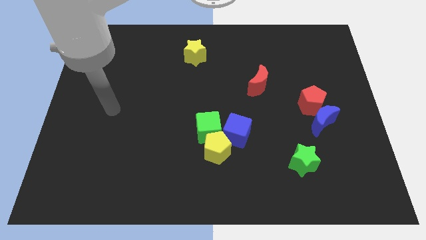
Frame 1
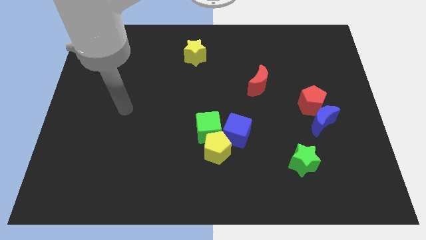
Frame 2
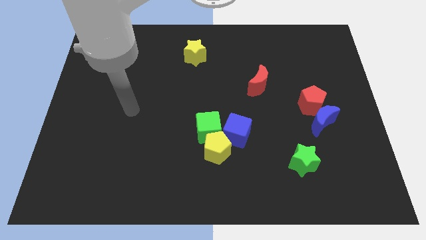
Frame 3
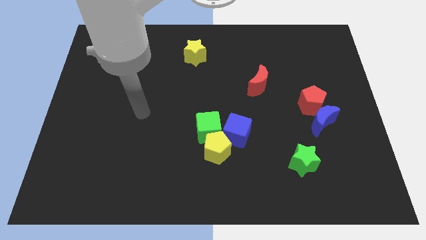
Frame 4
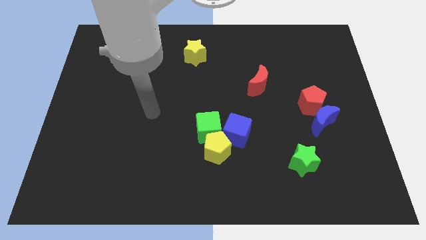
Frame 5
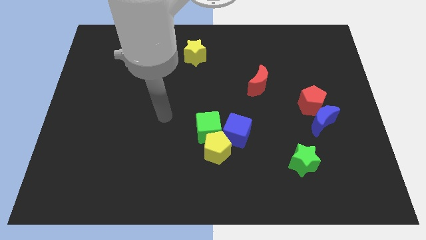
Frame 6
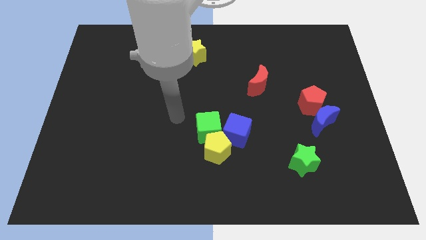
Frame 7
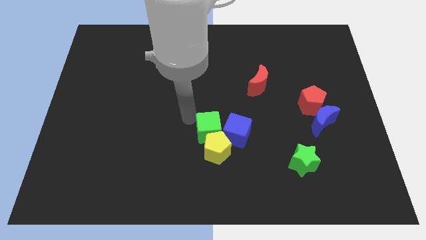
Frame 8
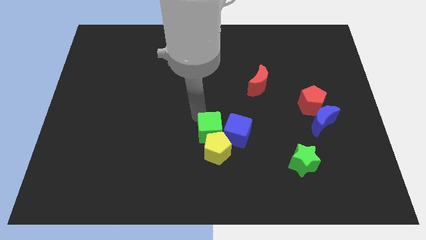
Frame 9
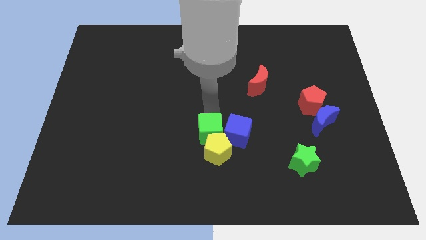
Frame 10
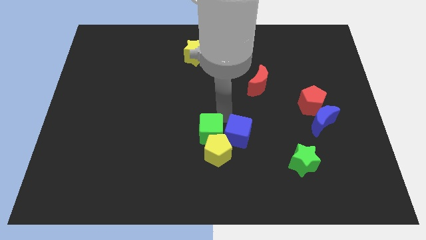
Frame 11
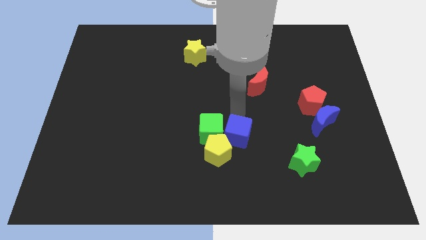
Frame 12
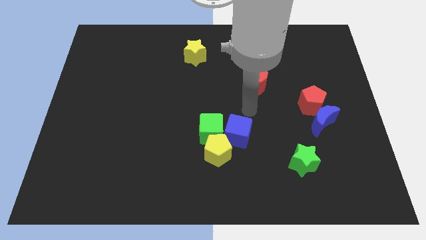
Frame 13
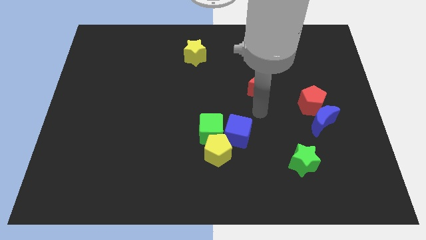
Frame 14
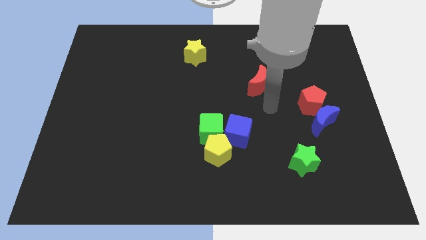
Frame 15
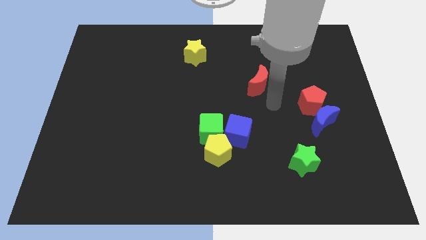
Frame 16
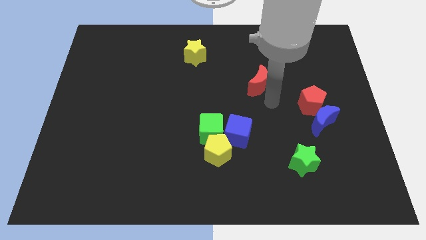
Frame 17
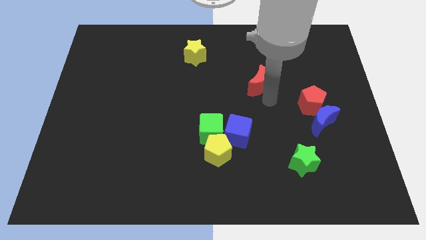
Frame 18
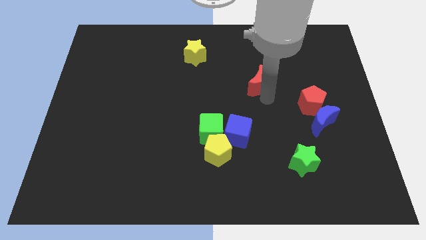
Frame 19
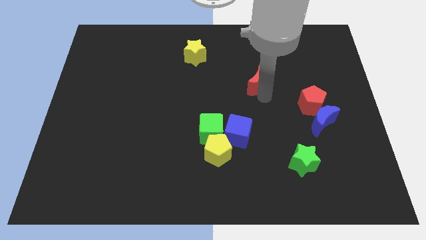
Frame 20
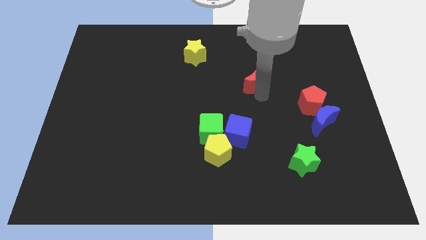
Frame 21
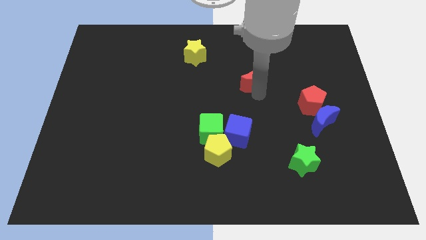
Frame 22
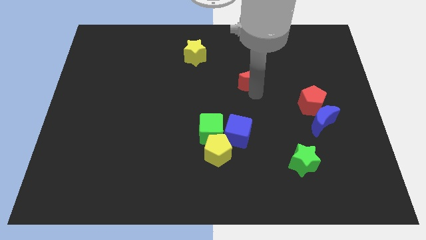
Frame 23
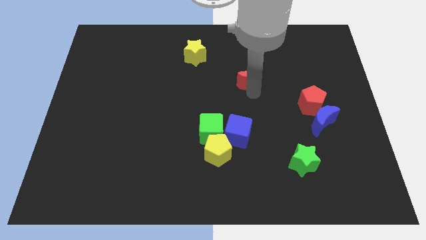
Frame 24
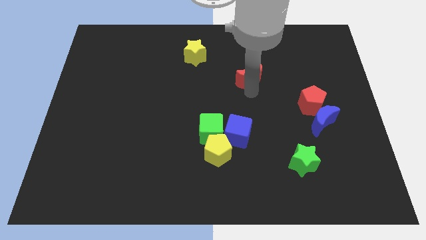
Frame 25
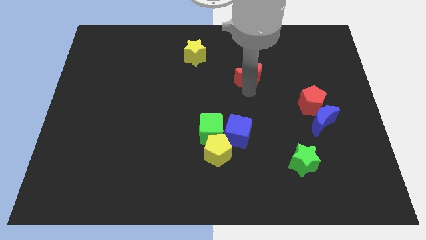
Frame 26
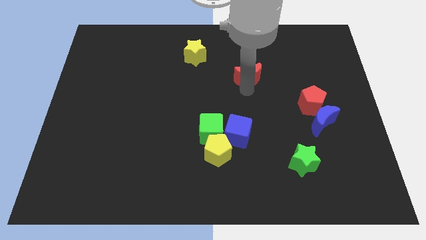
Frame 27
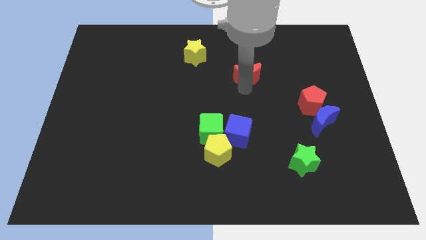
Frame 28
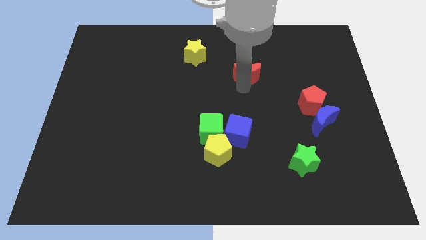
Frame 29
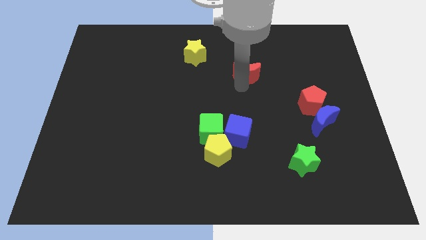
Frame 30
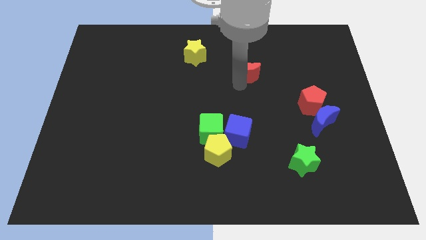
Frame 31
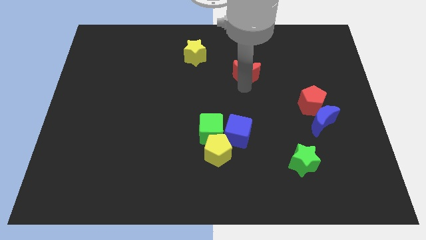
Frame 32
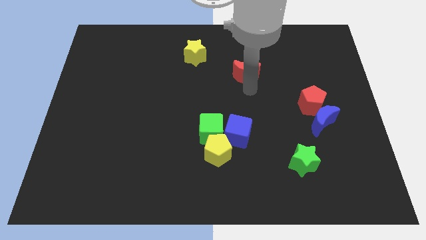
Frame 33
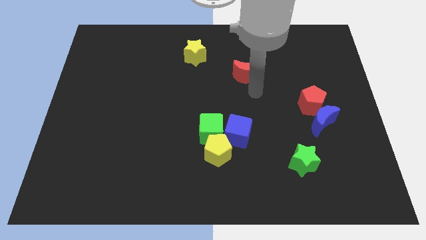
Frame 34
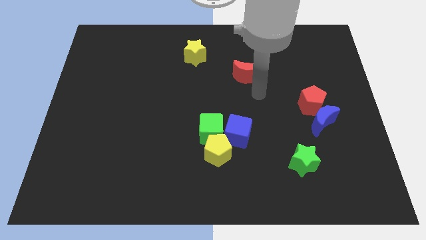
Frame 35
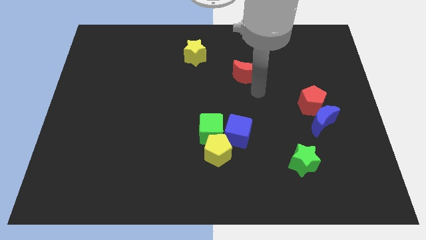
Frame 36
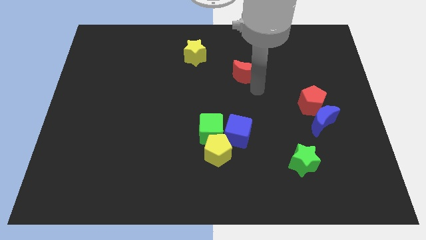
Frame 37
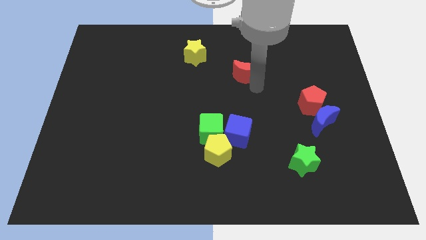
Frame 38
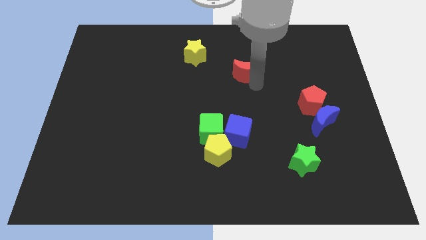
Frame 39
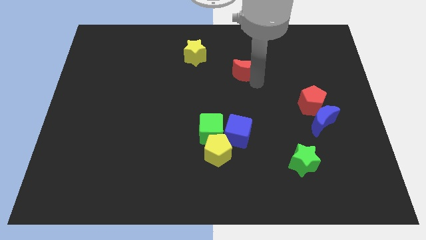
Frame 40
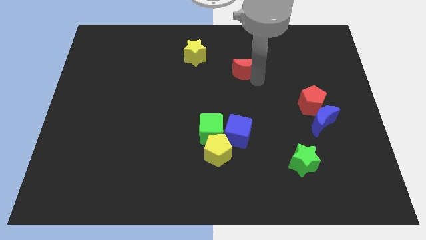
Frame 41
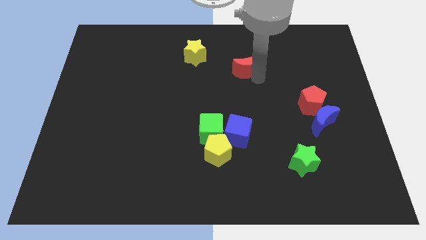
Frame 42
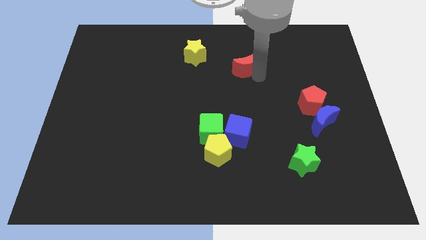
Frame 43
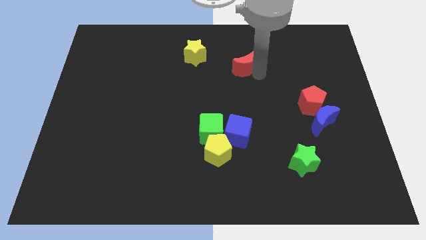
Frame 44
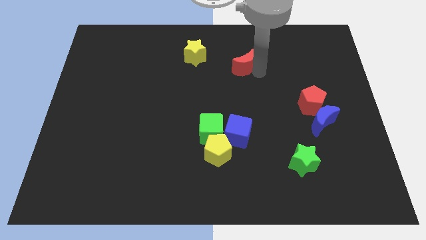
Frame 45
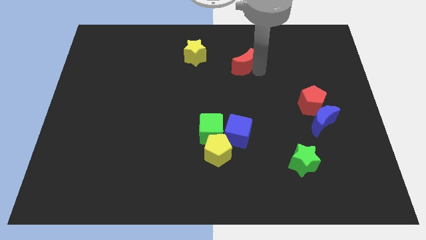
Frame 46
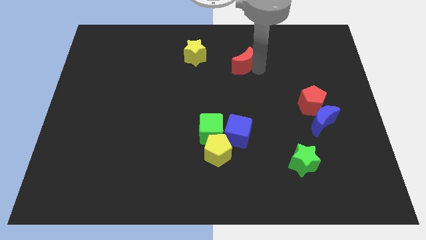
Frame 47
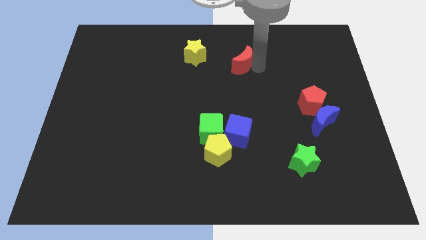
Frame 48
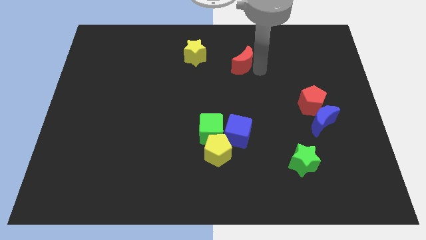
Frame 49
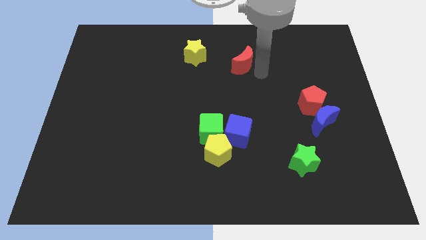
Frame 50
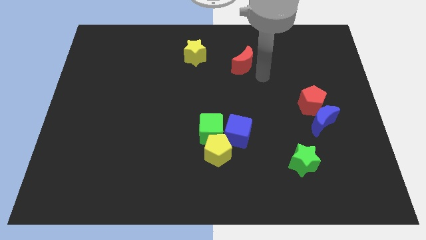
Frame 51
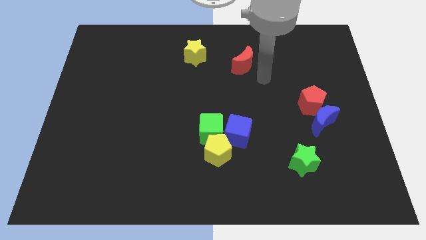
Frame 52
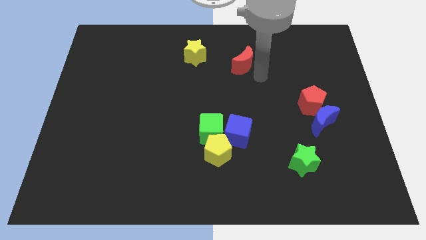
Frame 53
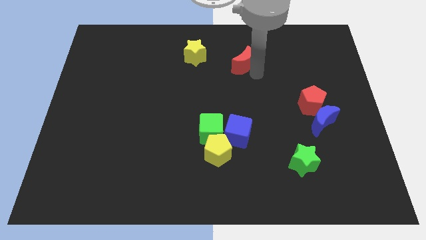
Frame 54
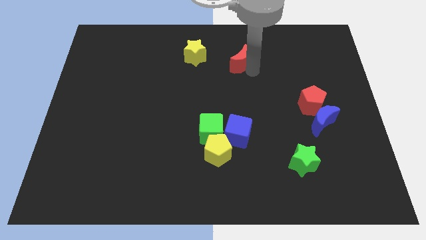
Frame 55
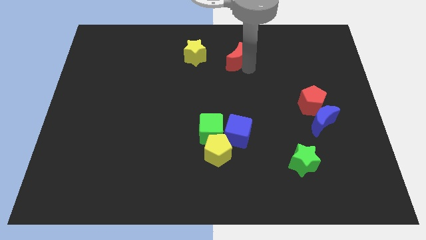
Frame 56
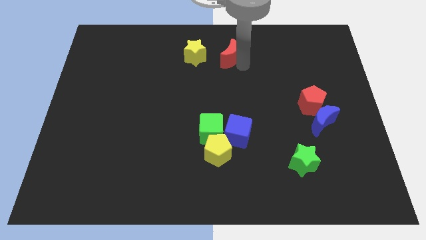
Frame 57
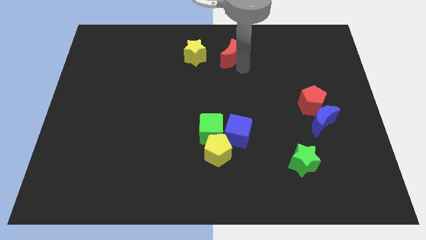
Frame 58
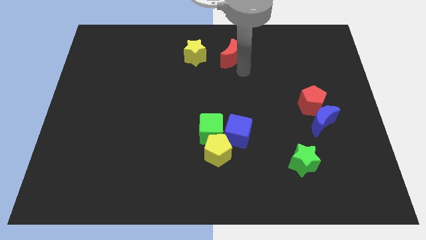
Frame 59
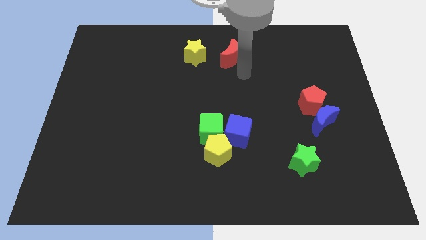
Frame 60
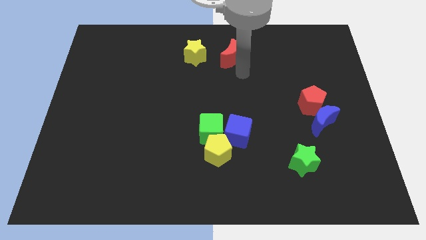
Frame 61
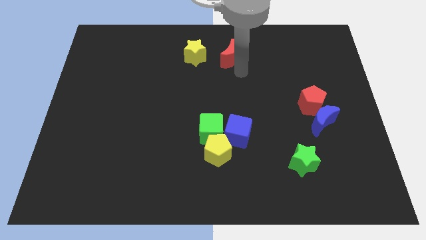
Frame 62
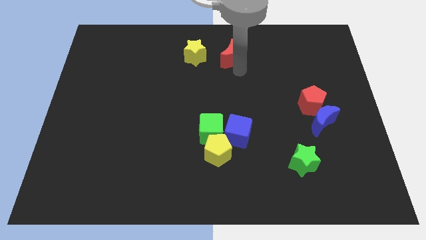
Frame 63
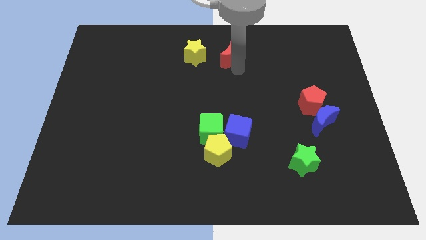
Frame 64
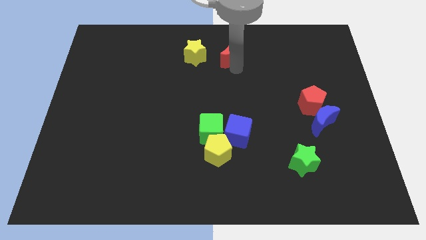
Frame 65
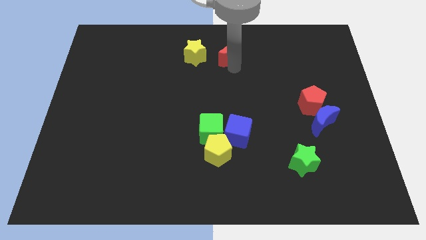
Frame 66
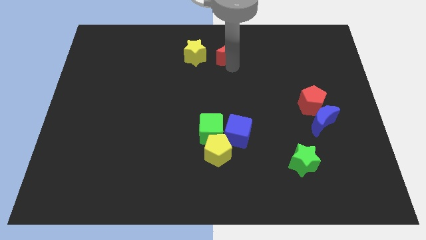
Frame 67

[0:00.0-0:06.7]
push the red moon to the top
